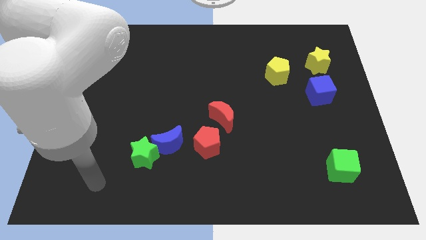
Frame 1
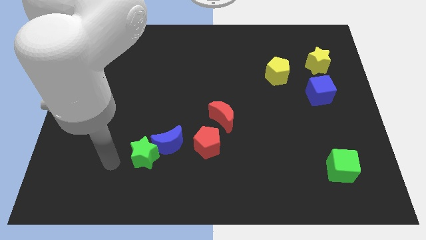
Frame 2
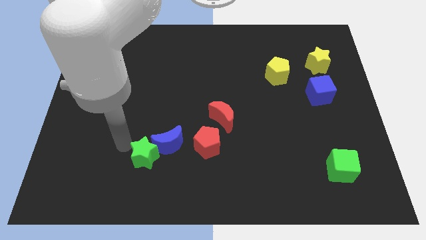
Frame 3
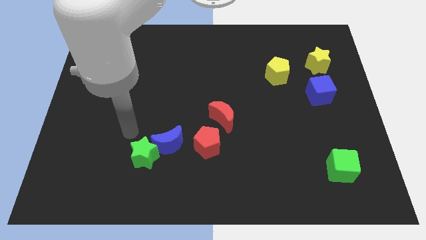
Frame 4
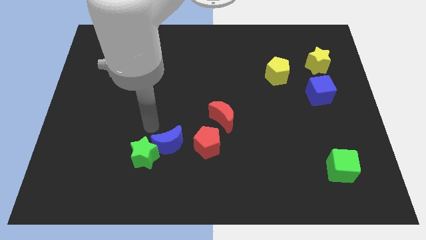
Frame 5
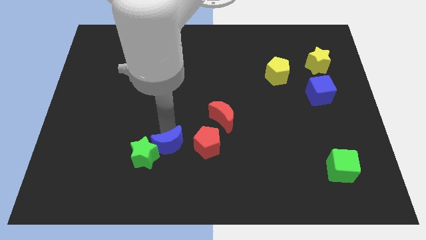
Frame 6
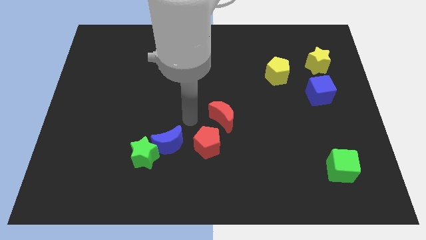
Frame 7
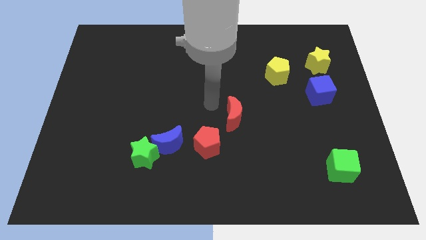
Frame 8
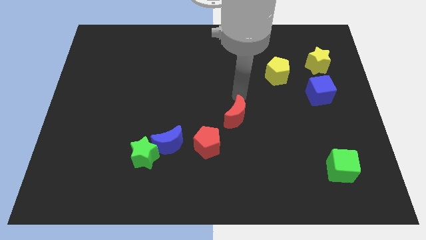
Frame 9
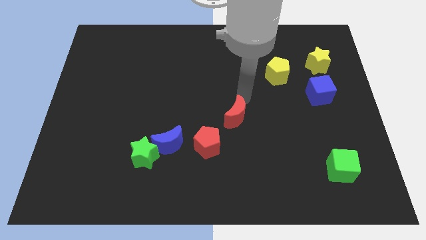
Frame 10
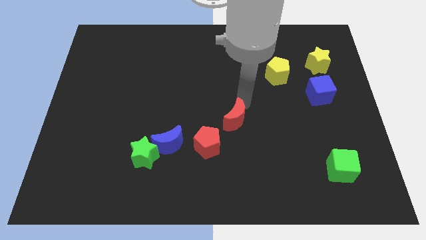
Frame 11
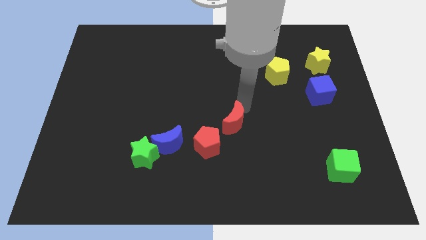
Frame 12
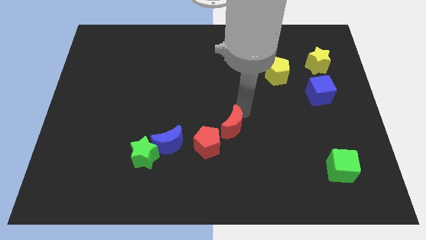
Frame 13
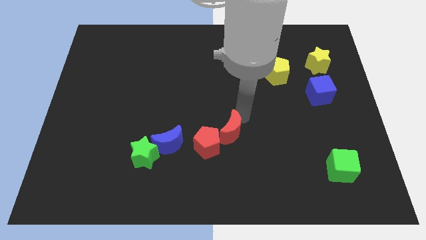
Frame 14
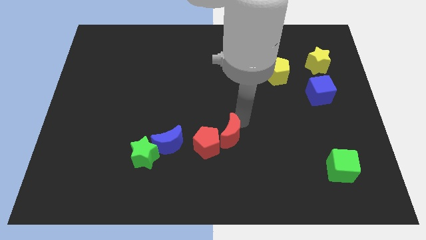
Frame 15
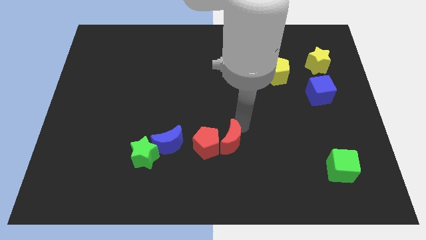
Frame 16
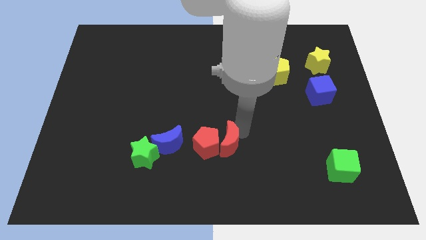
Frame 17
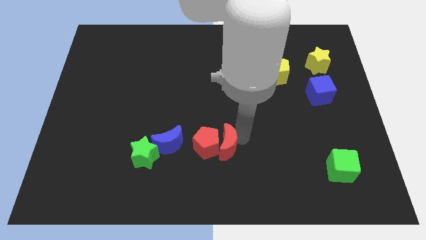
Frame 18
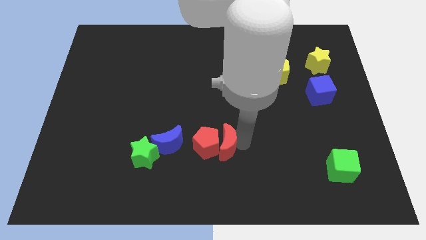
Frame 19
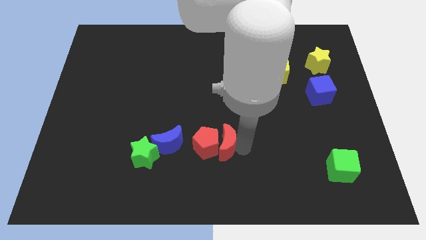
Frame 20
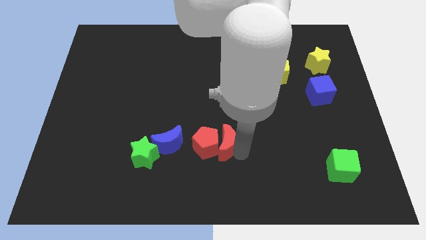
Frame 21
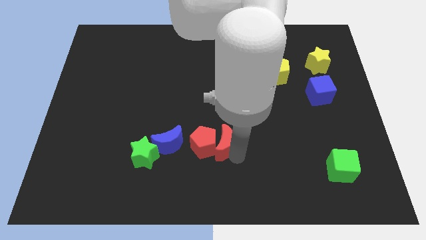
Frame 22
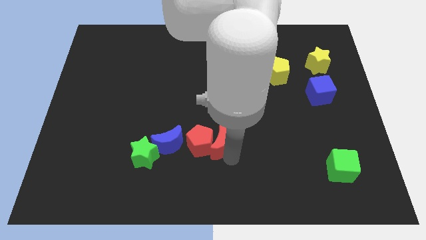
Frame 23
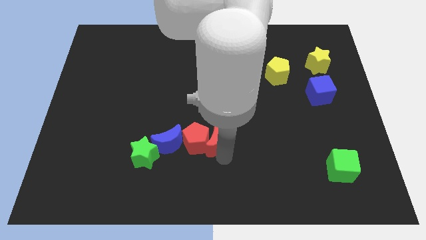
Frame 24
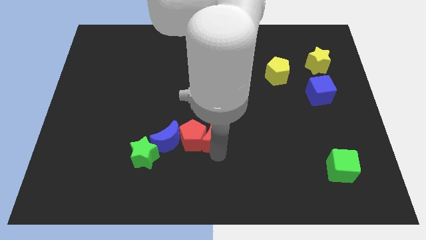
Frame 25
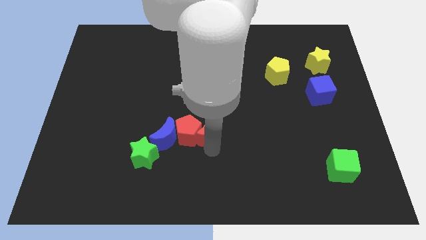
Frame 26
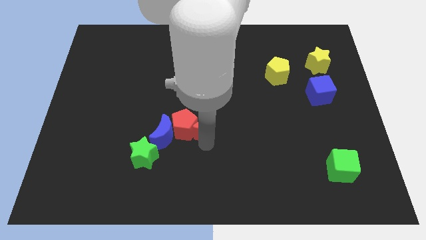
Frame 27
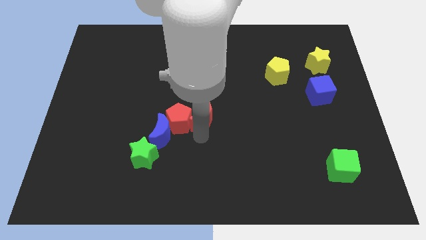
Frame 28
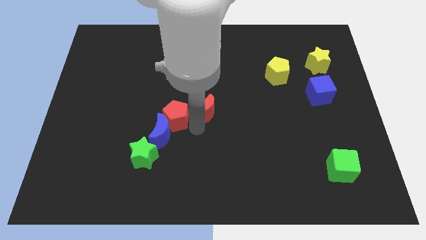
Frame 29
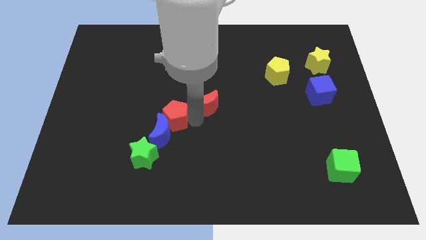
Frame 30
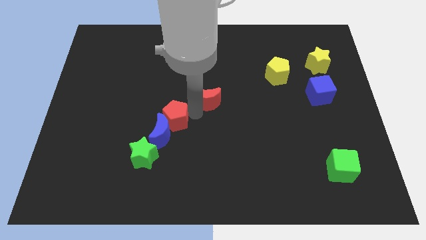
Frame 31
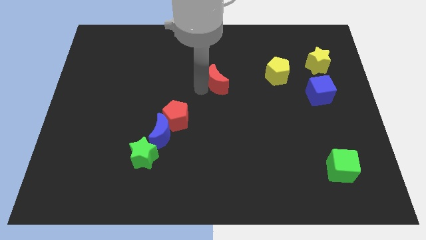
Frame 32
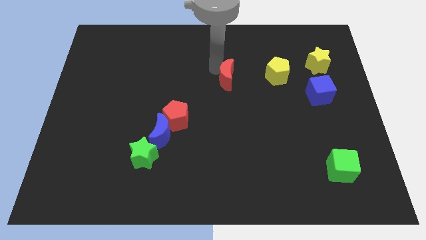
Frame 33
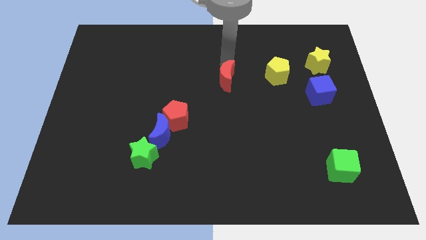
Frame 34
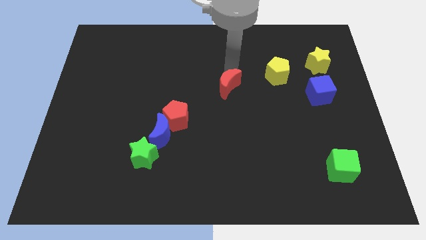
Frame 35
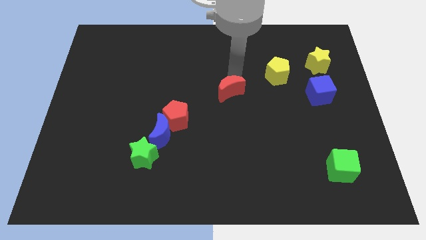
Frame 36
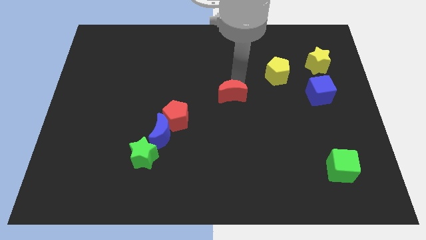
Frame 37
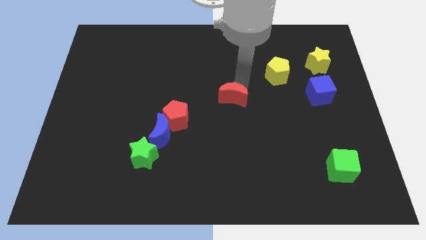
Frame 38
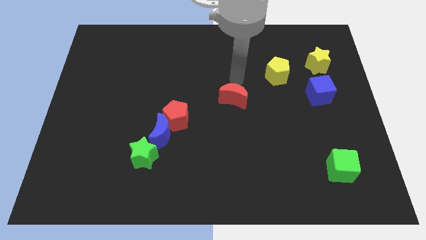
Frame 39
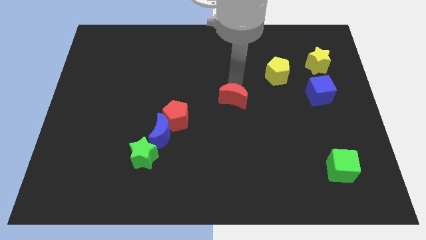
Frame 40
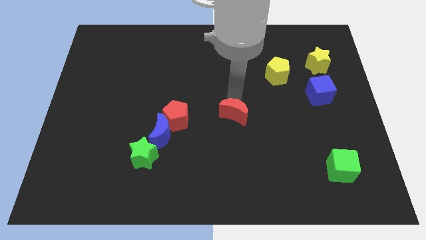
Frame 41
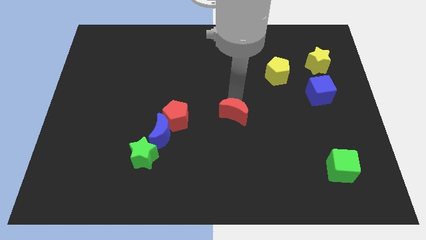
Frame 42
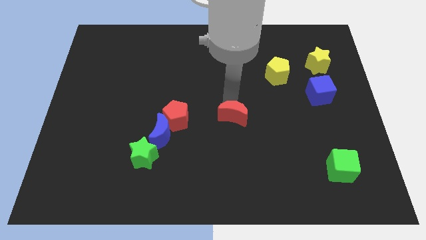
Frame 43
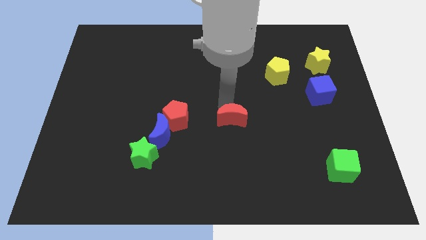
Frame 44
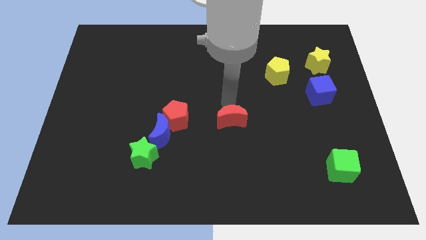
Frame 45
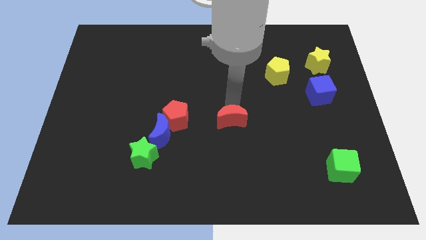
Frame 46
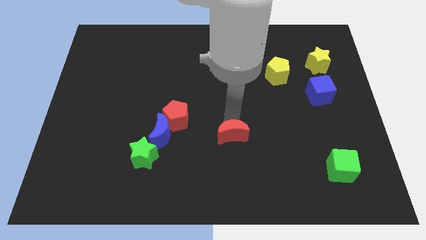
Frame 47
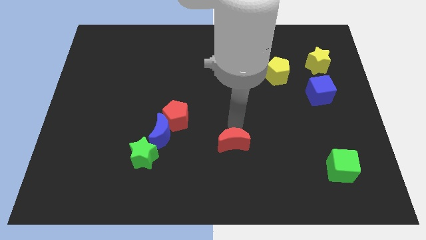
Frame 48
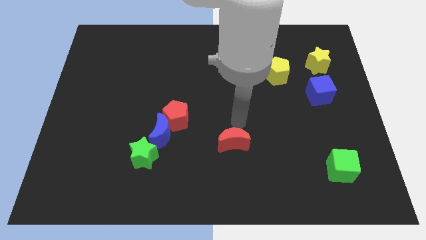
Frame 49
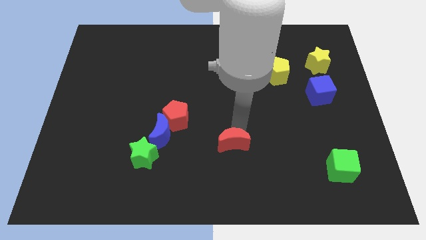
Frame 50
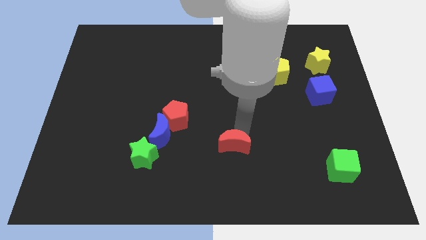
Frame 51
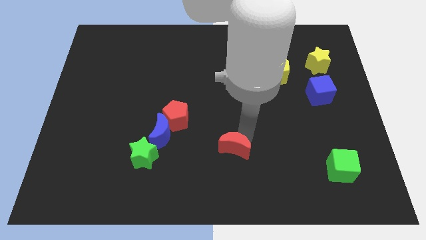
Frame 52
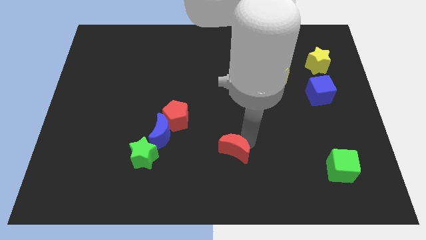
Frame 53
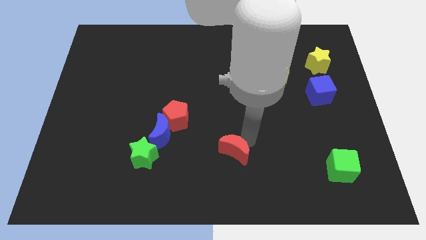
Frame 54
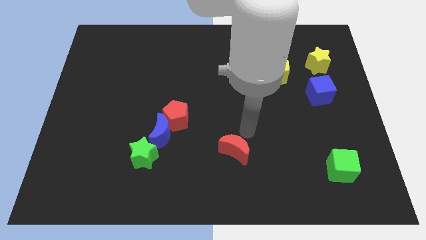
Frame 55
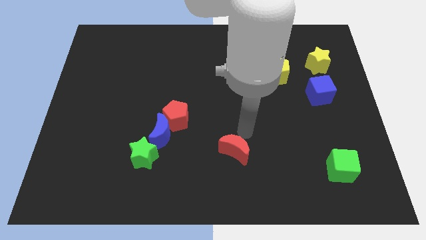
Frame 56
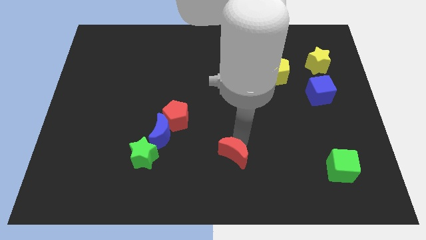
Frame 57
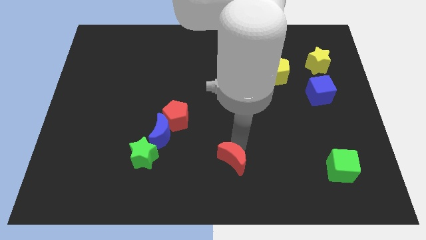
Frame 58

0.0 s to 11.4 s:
slide the red moon to the bottom side

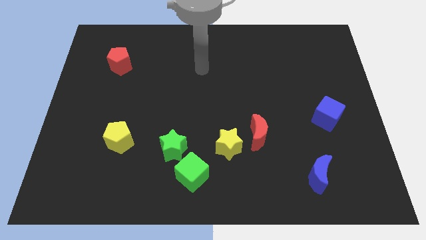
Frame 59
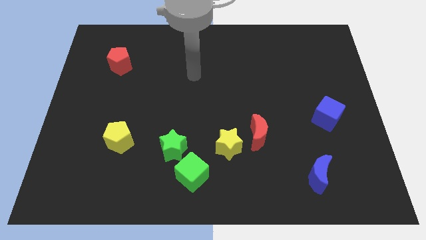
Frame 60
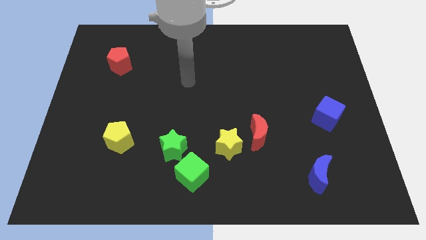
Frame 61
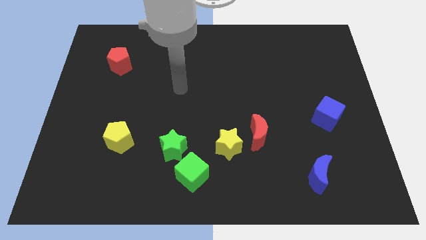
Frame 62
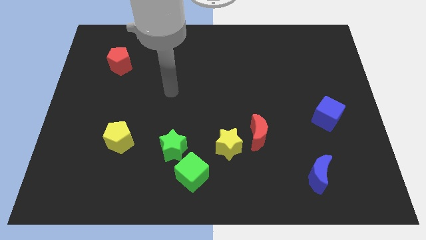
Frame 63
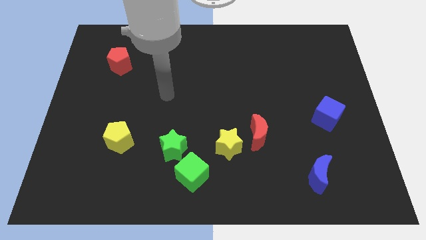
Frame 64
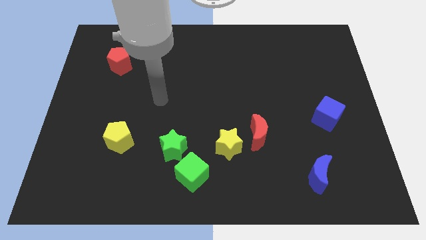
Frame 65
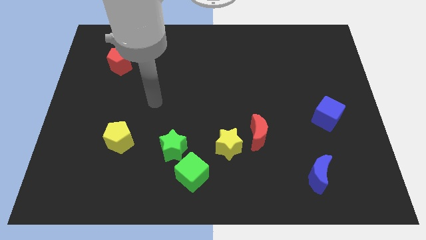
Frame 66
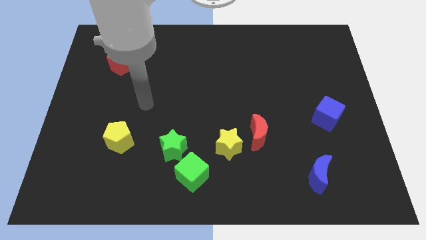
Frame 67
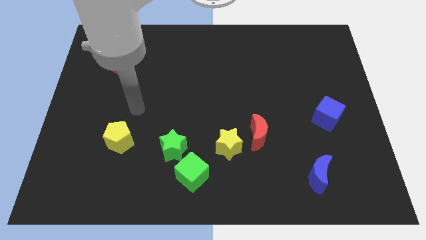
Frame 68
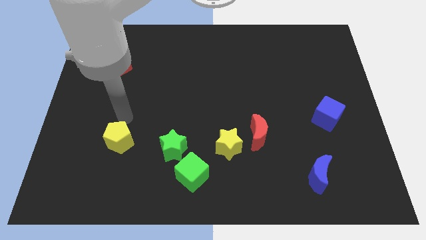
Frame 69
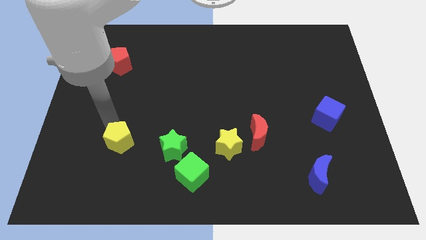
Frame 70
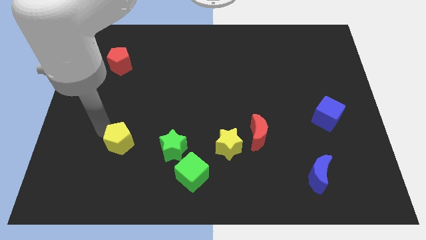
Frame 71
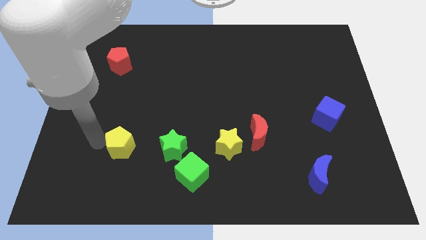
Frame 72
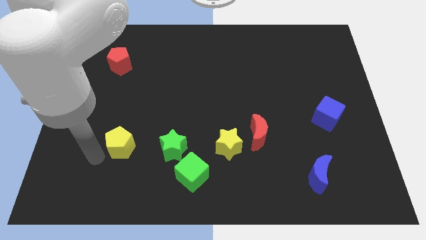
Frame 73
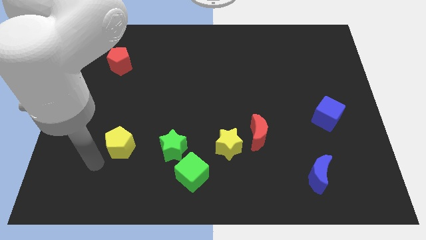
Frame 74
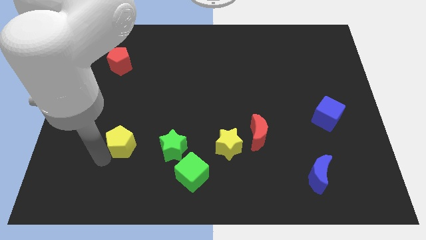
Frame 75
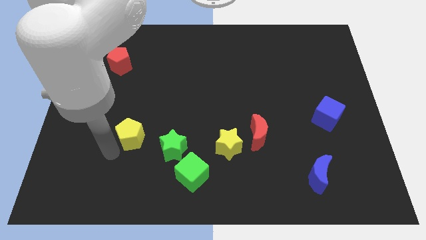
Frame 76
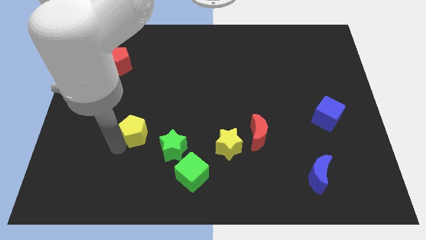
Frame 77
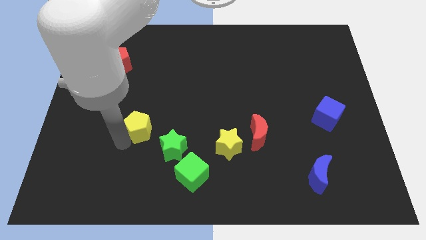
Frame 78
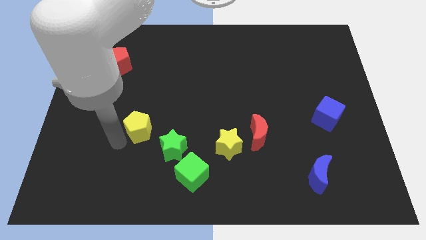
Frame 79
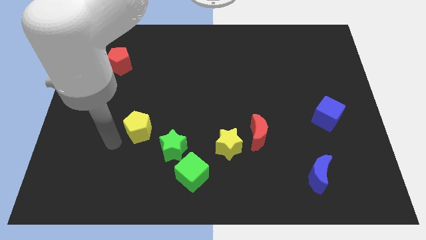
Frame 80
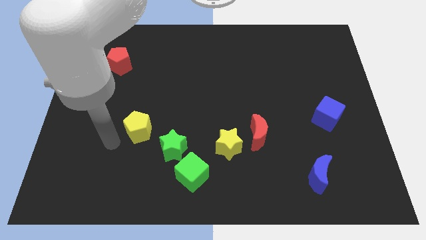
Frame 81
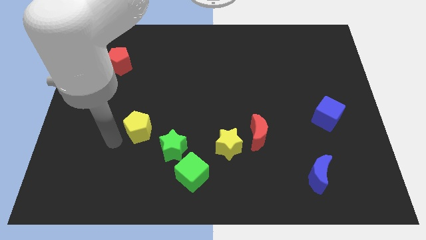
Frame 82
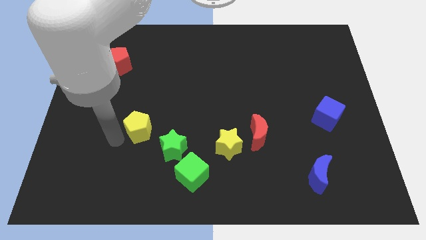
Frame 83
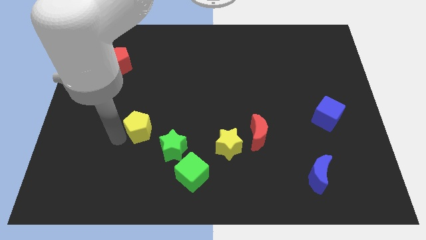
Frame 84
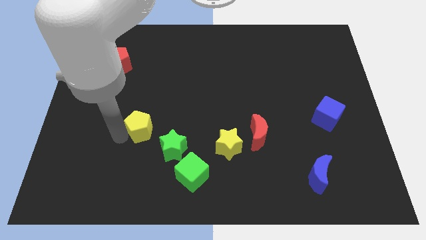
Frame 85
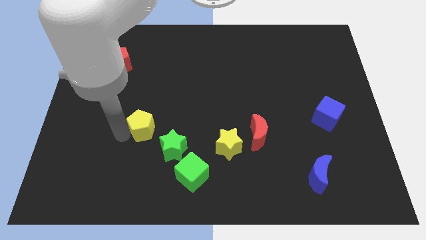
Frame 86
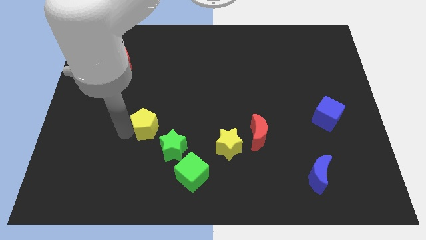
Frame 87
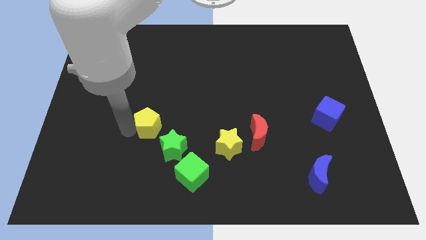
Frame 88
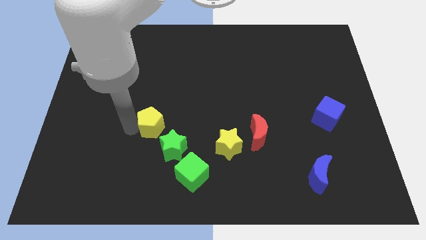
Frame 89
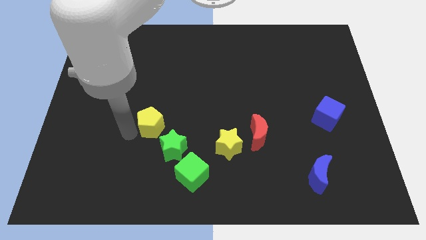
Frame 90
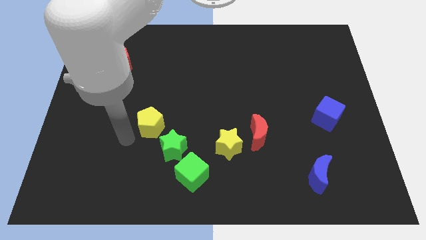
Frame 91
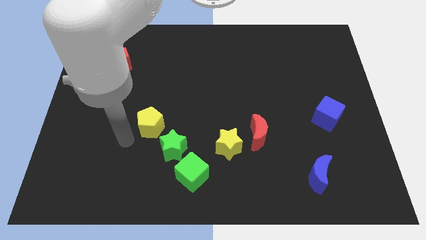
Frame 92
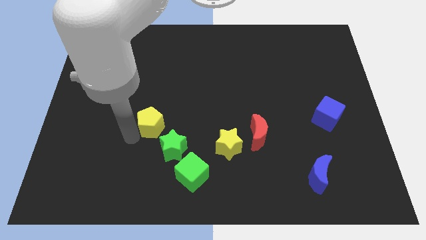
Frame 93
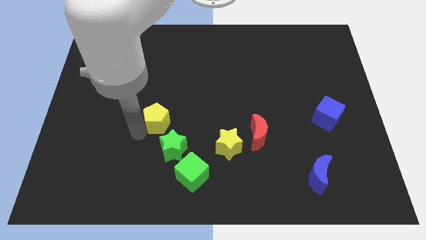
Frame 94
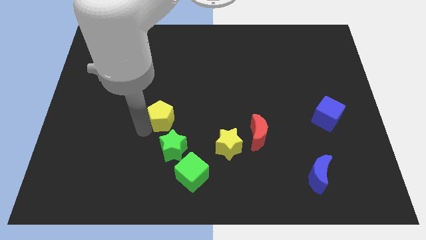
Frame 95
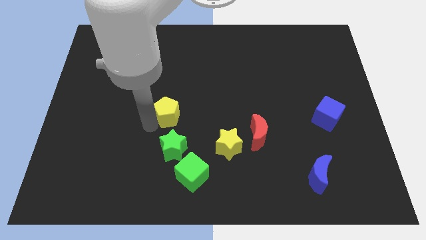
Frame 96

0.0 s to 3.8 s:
move the yellow pentagon to the center
